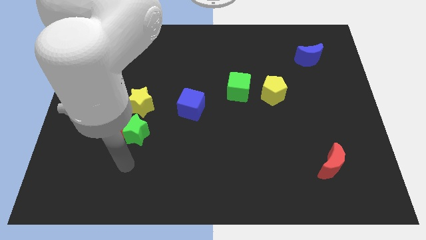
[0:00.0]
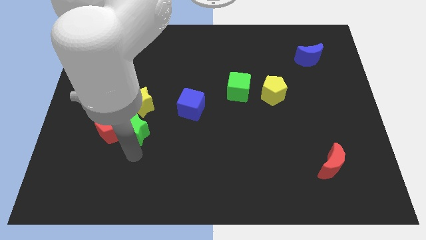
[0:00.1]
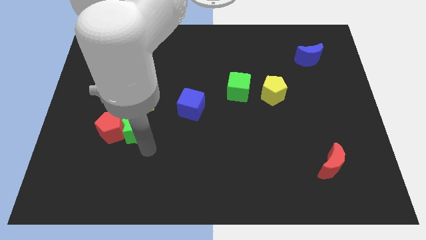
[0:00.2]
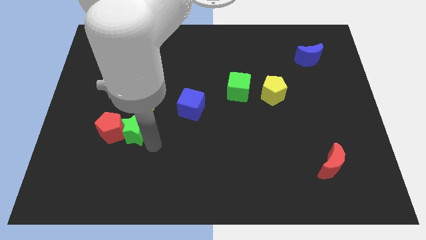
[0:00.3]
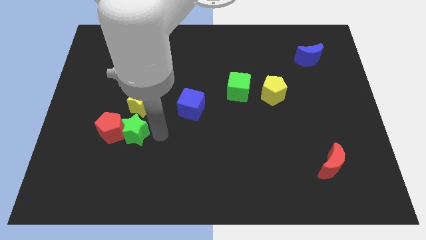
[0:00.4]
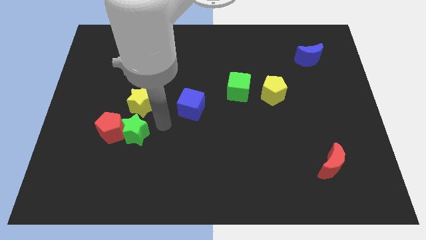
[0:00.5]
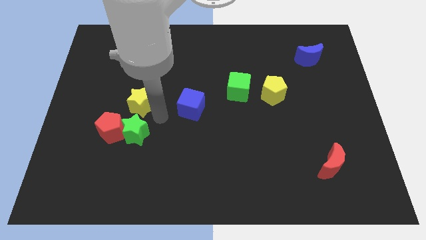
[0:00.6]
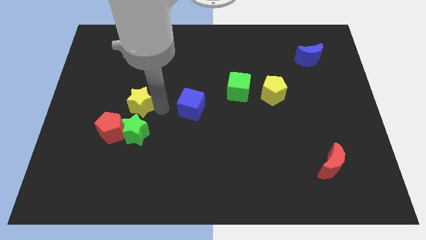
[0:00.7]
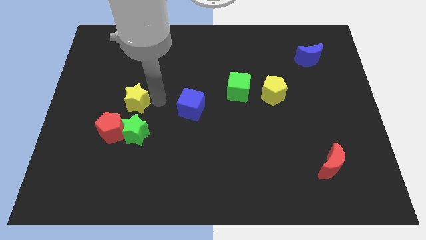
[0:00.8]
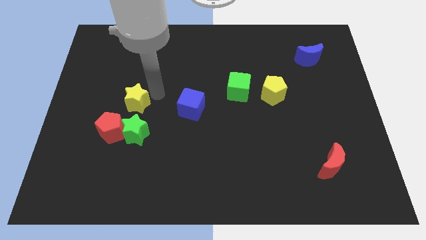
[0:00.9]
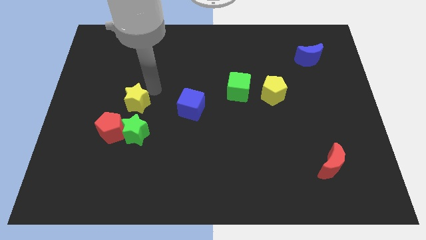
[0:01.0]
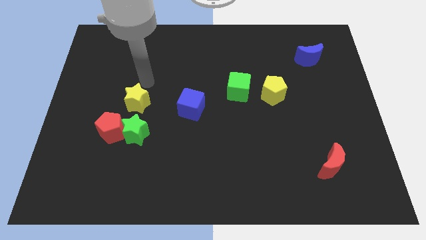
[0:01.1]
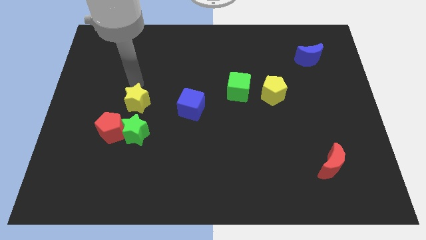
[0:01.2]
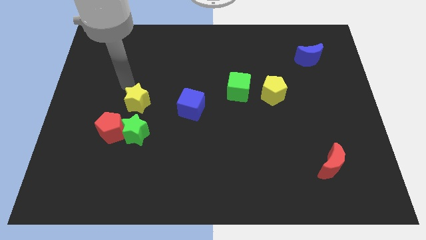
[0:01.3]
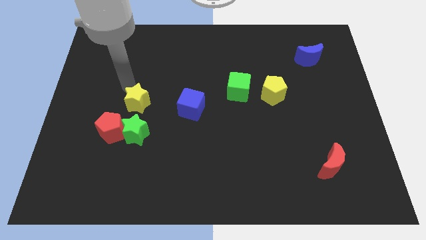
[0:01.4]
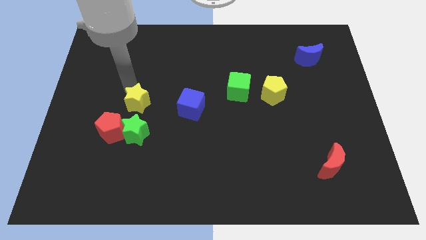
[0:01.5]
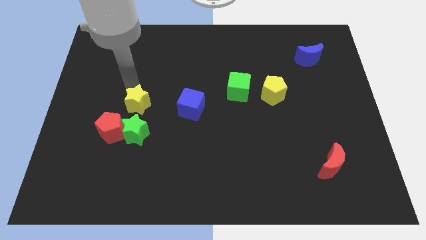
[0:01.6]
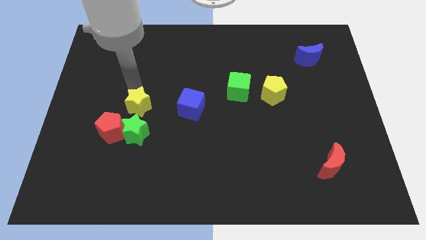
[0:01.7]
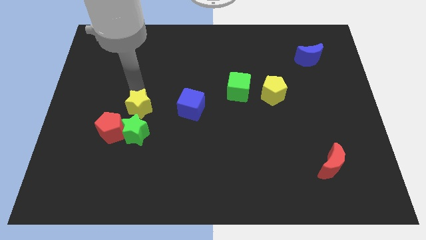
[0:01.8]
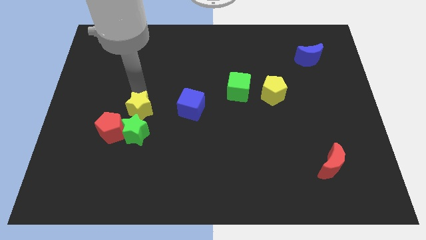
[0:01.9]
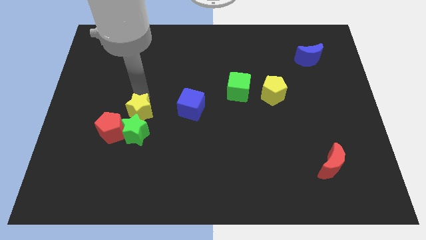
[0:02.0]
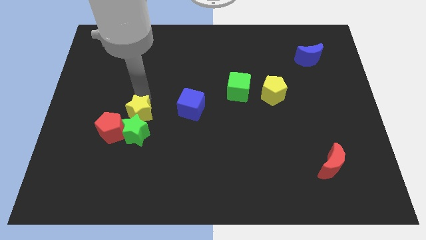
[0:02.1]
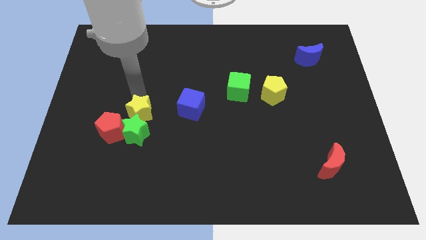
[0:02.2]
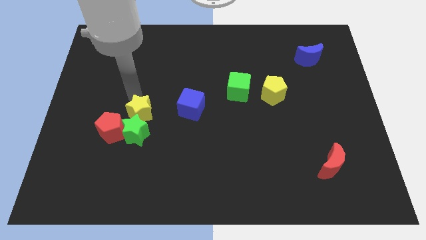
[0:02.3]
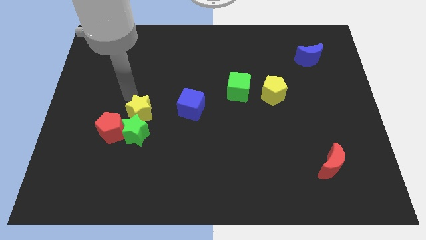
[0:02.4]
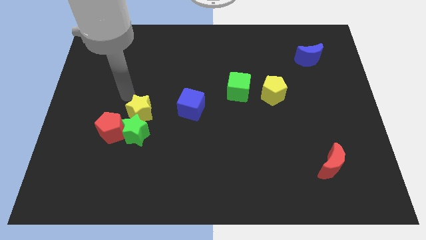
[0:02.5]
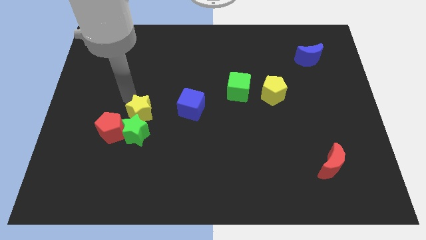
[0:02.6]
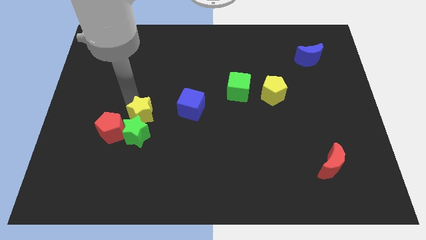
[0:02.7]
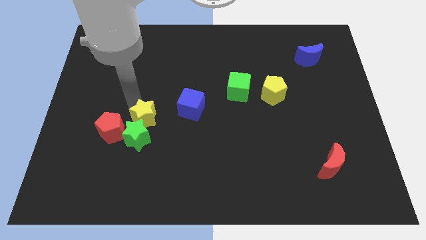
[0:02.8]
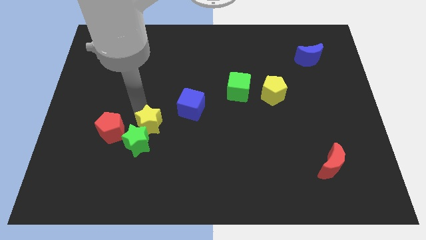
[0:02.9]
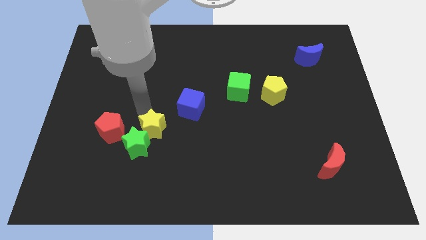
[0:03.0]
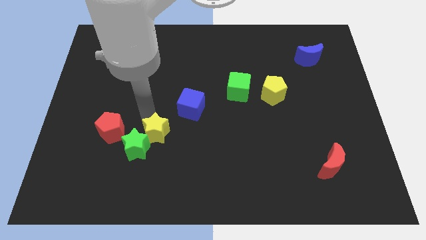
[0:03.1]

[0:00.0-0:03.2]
slightly slide the yellow star downwards

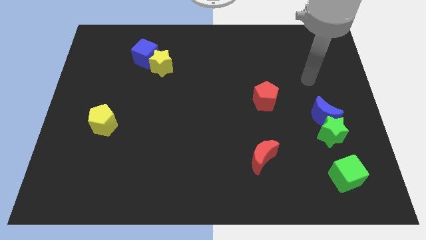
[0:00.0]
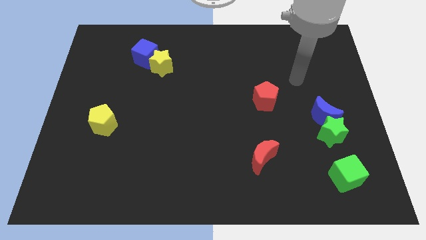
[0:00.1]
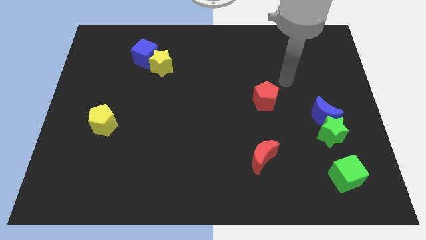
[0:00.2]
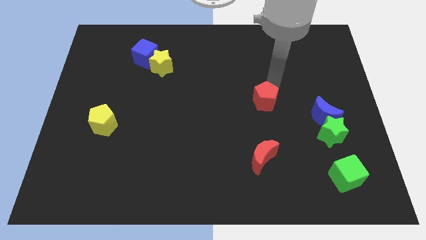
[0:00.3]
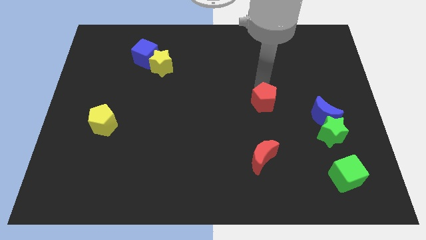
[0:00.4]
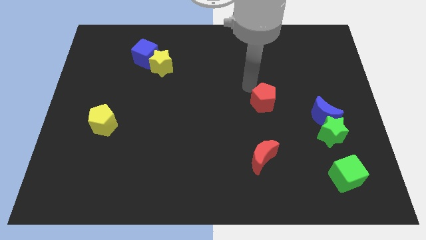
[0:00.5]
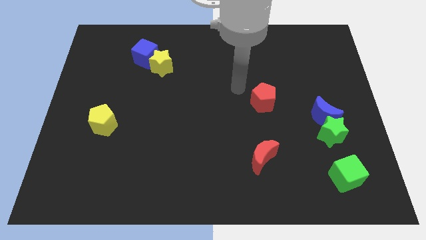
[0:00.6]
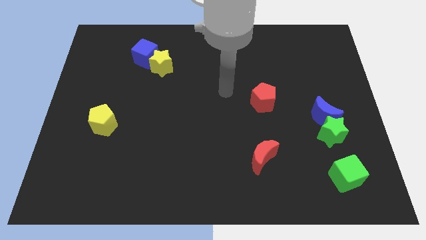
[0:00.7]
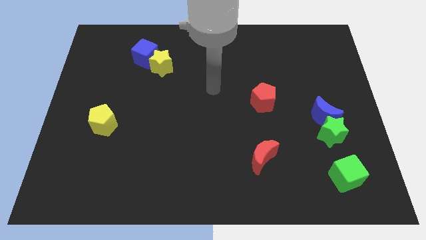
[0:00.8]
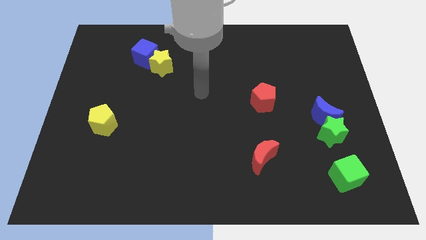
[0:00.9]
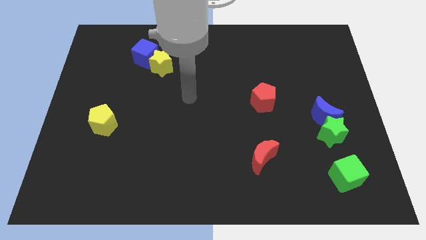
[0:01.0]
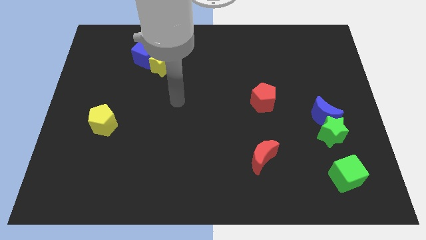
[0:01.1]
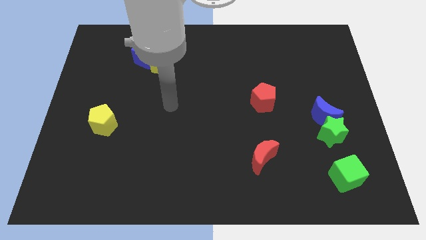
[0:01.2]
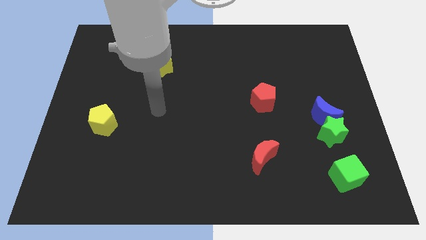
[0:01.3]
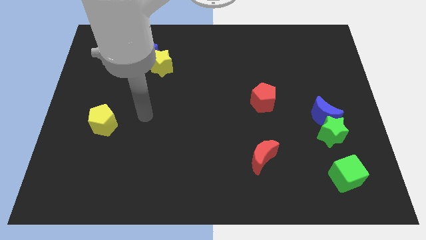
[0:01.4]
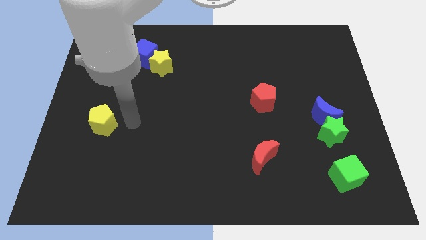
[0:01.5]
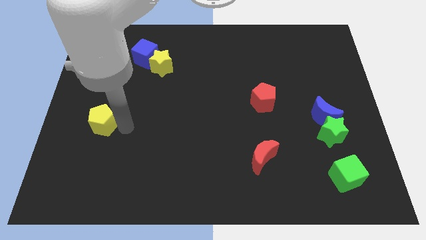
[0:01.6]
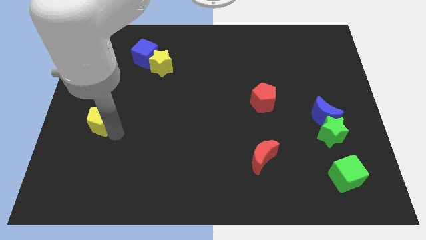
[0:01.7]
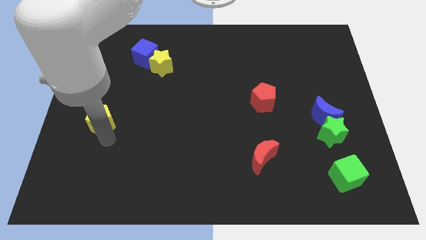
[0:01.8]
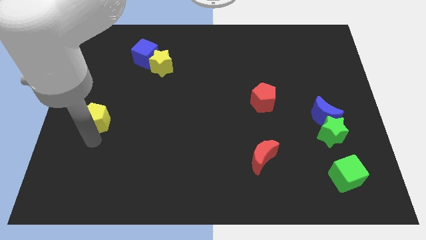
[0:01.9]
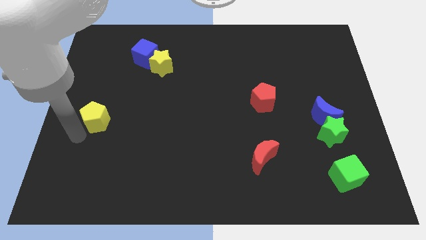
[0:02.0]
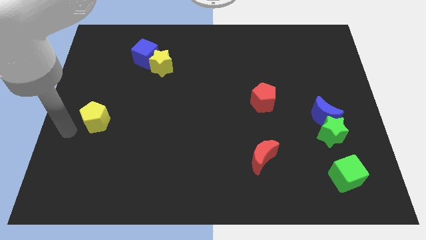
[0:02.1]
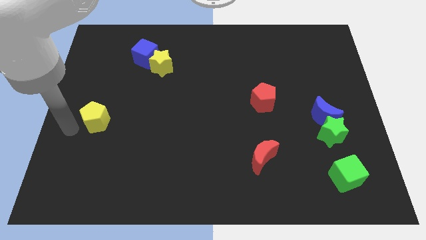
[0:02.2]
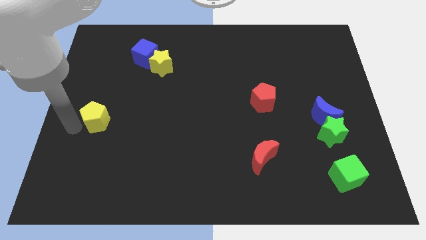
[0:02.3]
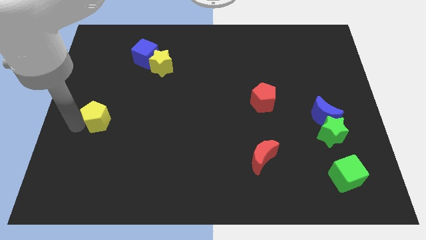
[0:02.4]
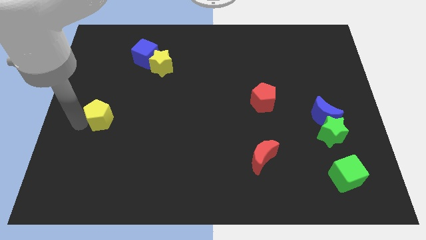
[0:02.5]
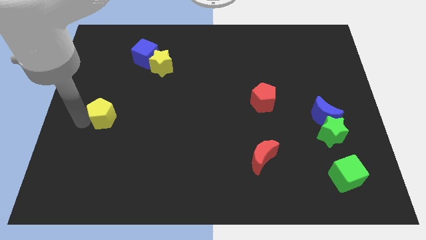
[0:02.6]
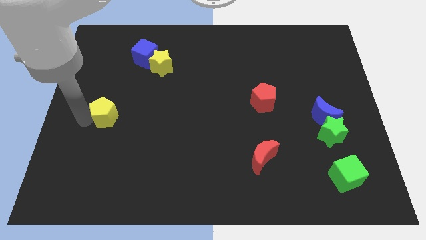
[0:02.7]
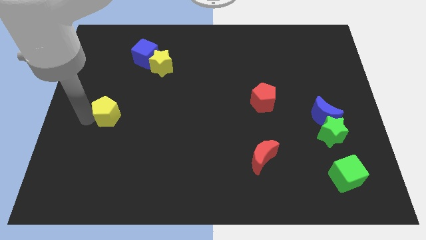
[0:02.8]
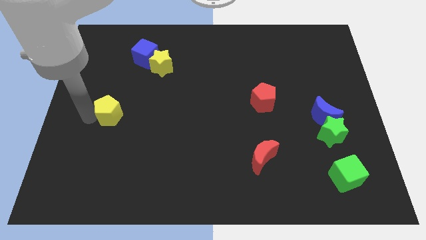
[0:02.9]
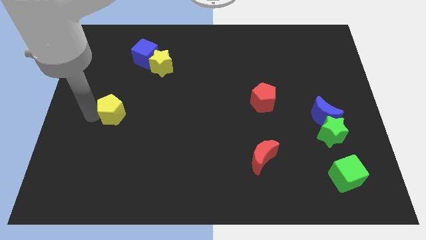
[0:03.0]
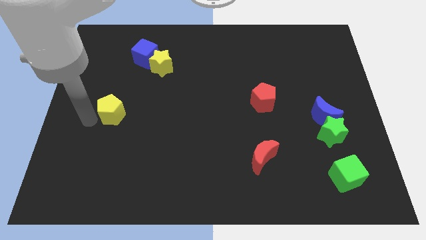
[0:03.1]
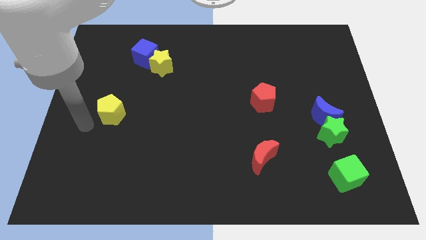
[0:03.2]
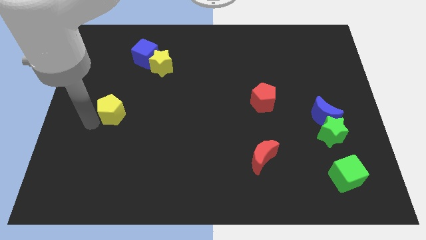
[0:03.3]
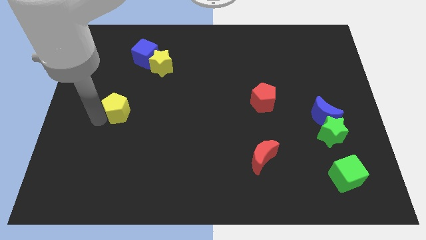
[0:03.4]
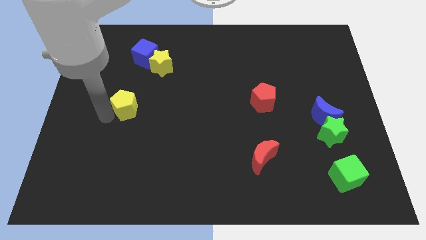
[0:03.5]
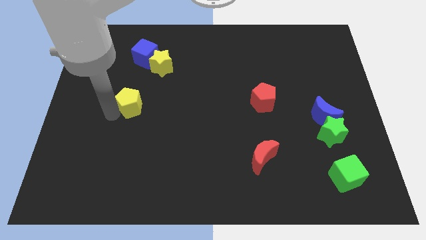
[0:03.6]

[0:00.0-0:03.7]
move the yellow pentagon a little bit up and then to the right

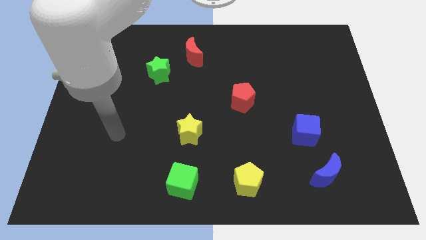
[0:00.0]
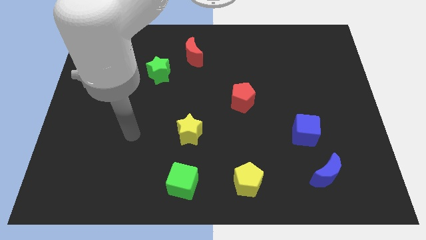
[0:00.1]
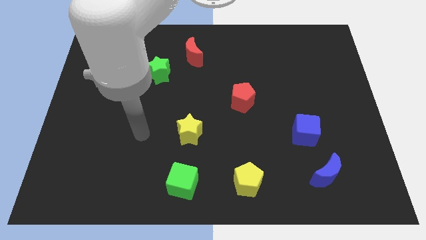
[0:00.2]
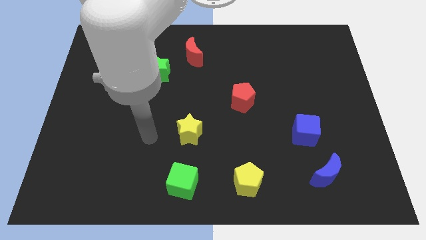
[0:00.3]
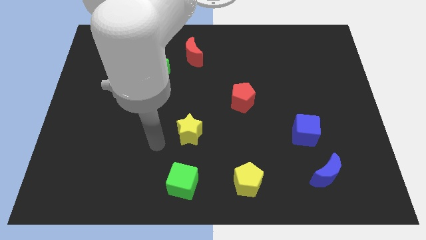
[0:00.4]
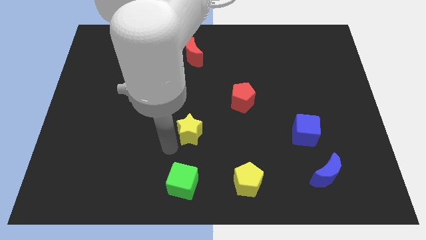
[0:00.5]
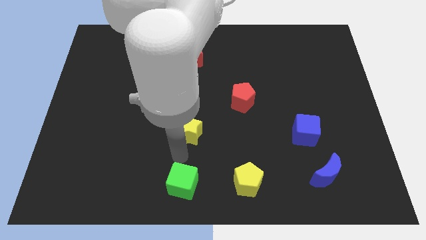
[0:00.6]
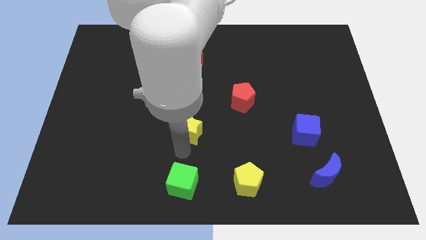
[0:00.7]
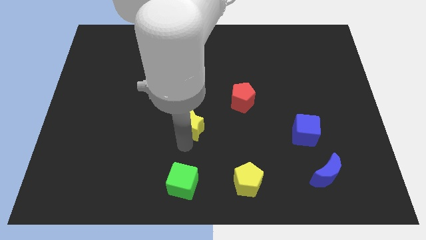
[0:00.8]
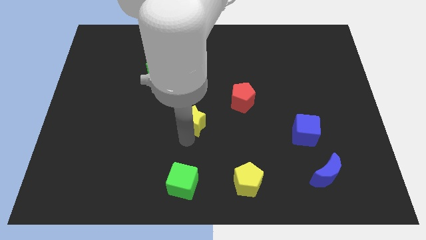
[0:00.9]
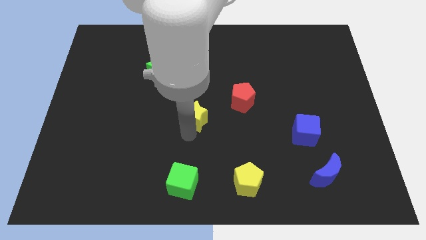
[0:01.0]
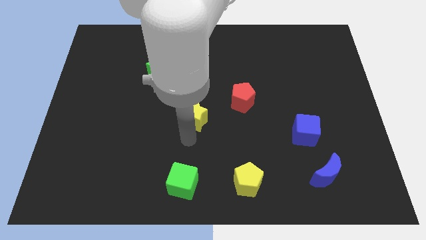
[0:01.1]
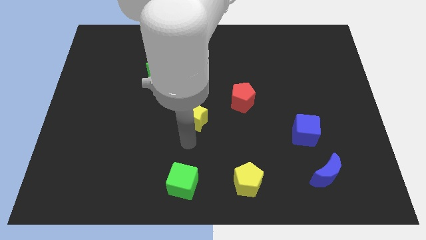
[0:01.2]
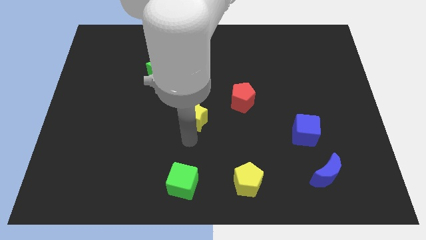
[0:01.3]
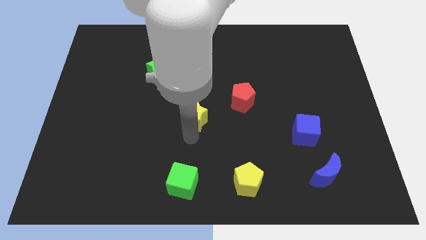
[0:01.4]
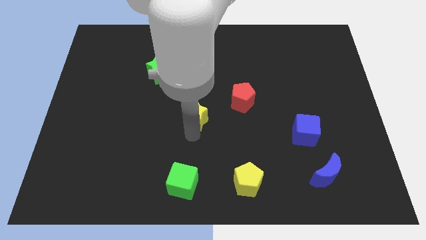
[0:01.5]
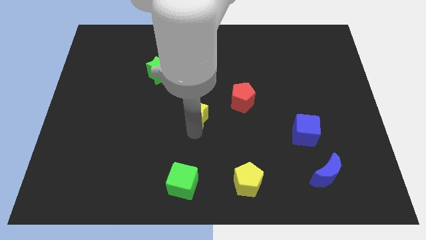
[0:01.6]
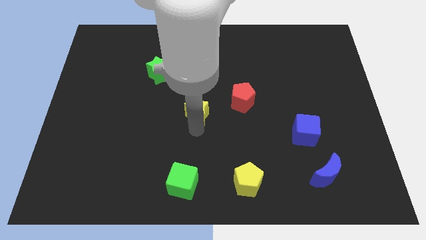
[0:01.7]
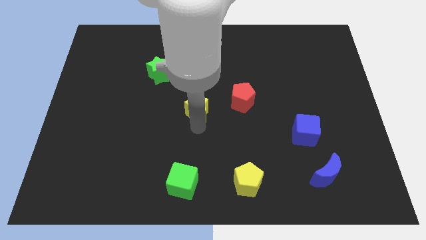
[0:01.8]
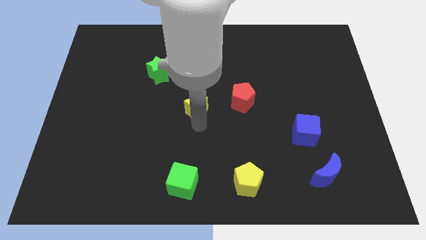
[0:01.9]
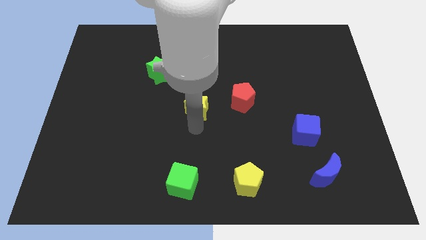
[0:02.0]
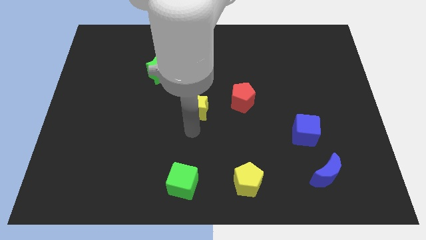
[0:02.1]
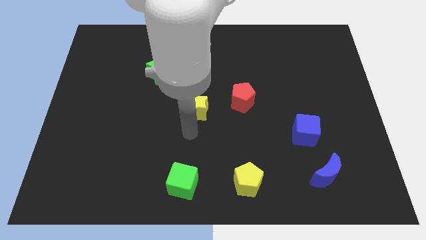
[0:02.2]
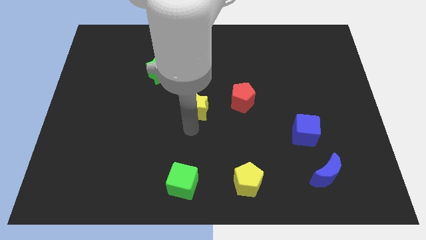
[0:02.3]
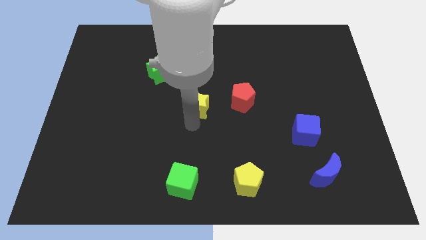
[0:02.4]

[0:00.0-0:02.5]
slightly slide the yellow star upwards
